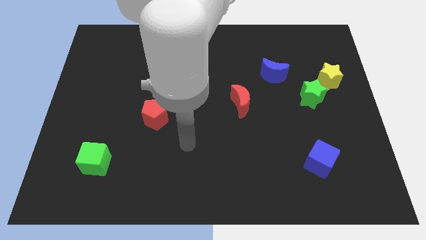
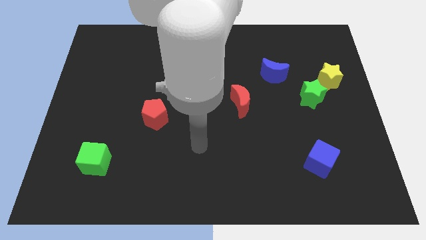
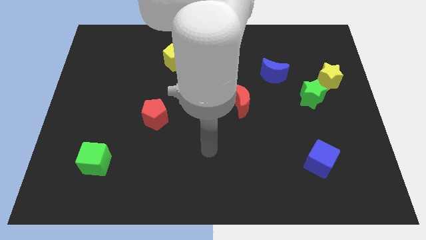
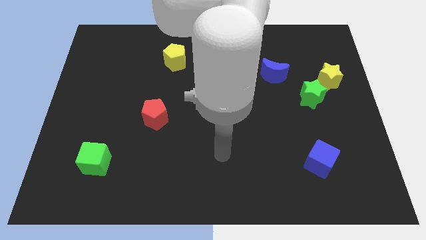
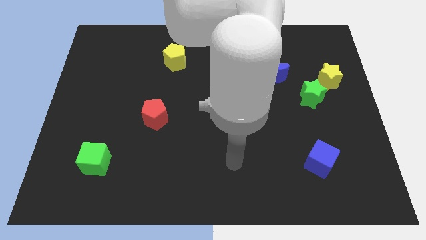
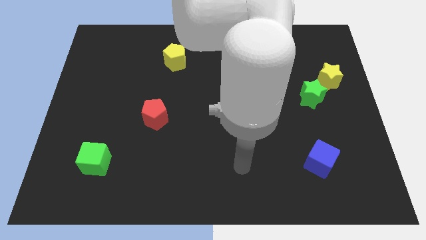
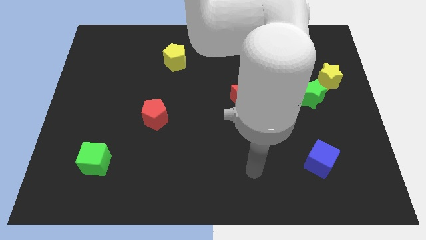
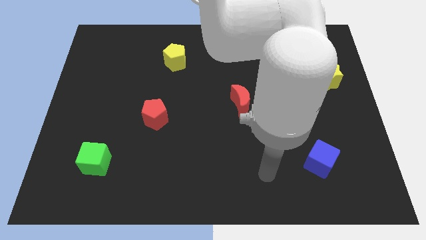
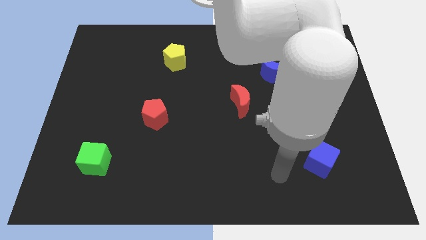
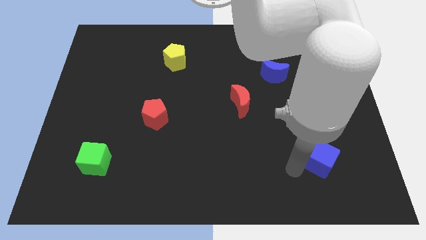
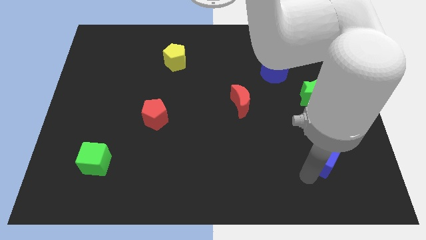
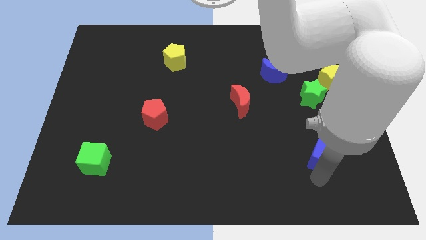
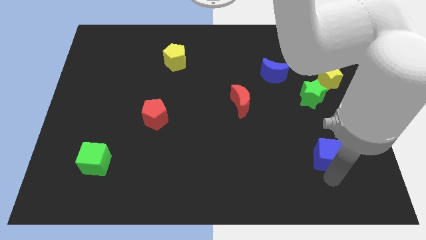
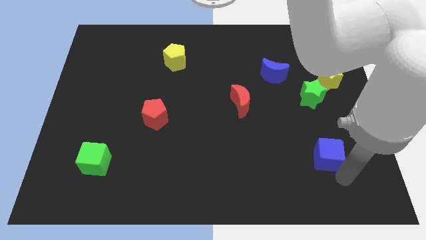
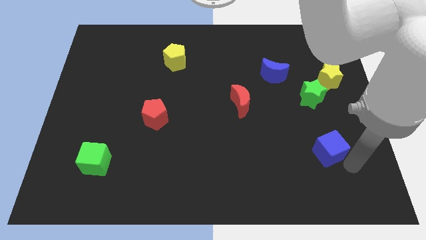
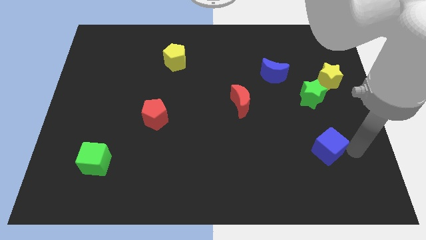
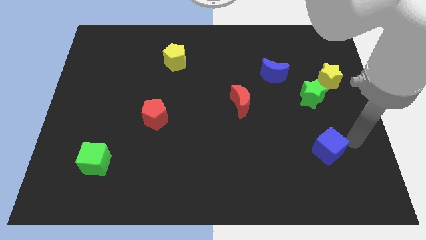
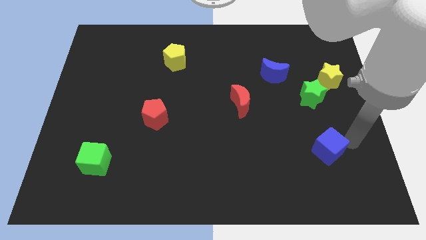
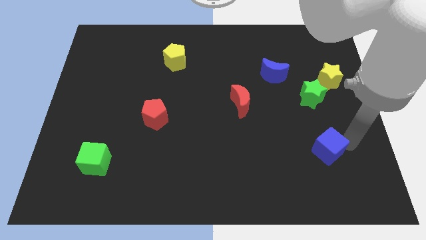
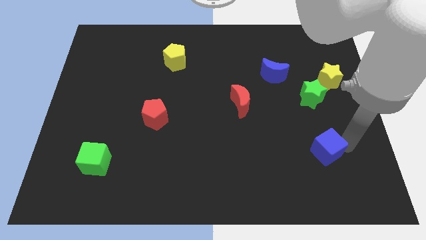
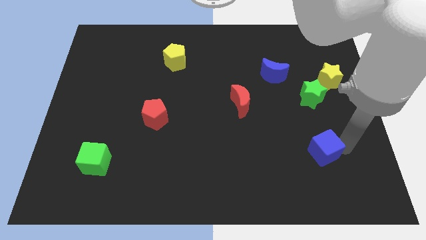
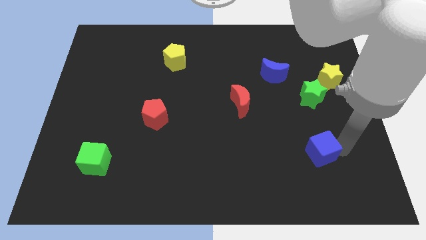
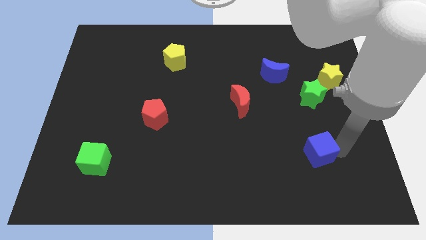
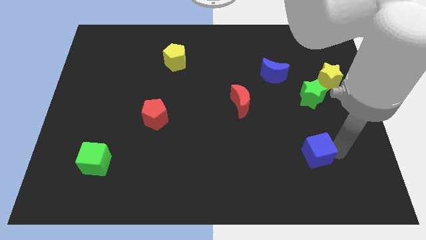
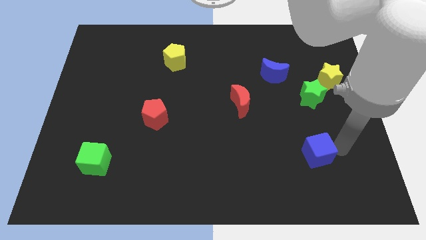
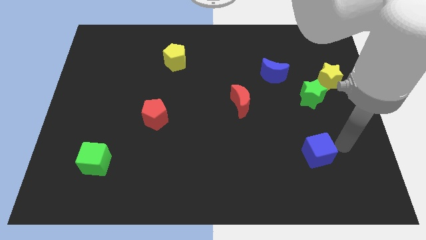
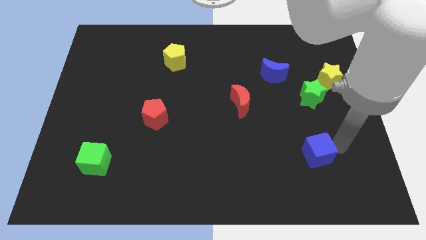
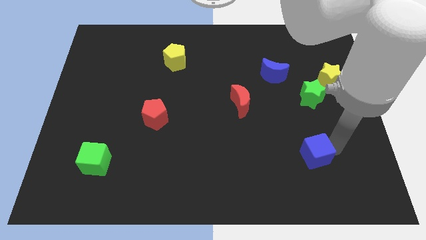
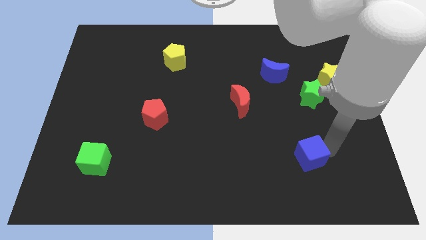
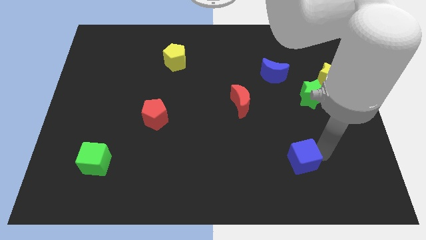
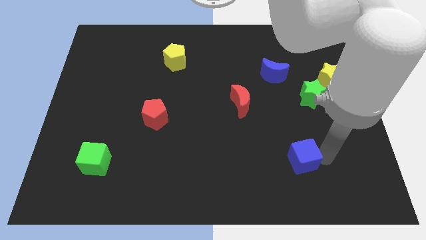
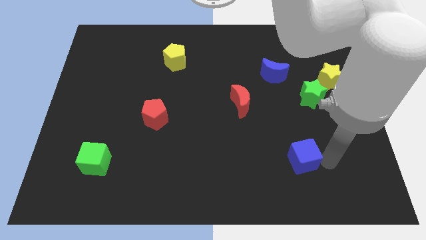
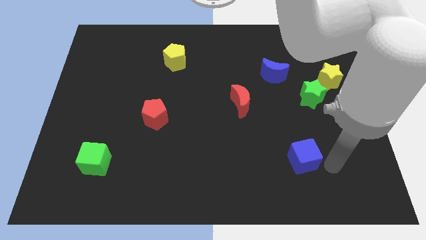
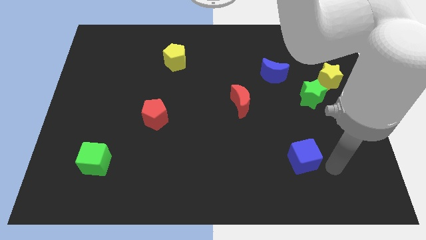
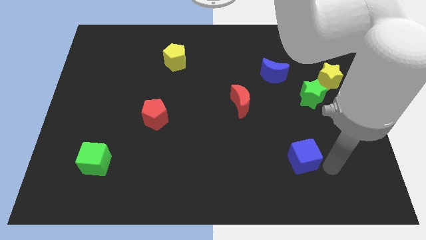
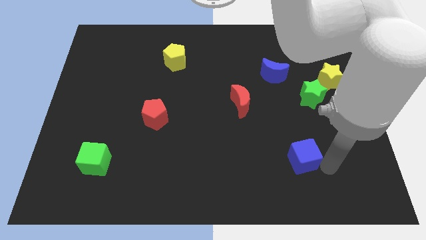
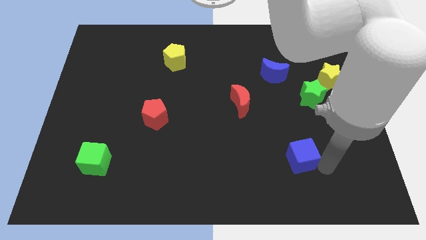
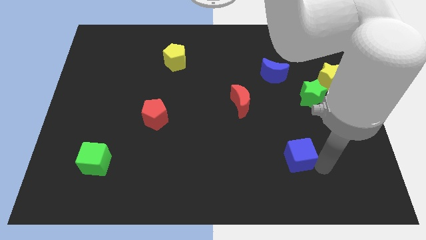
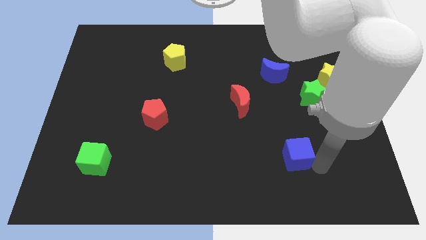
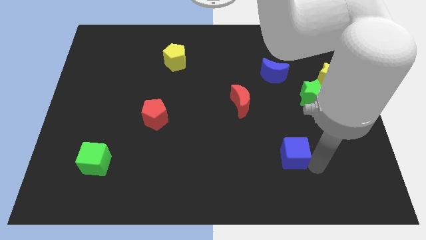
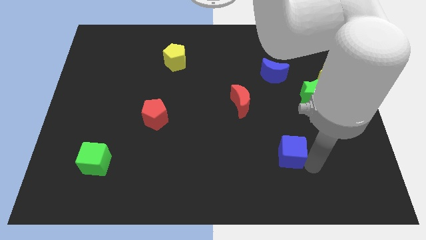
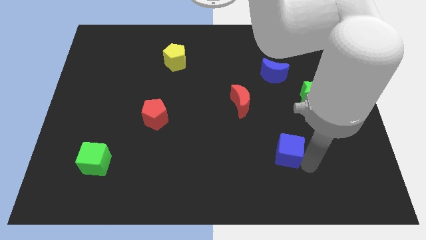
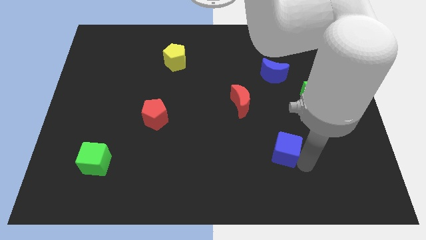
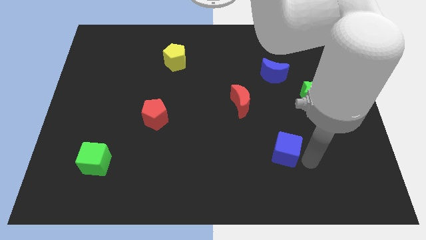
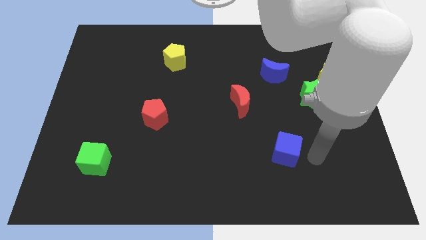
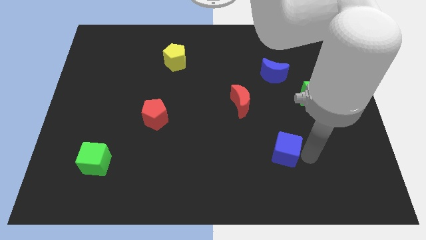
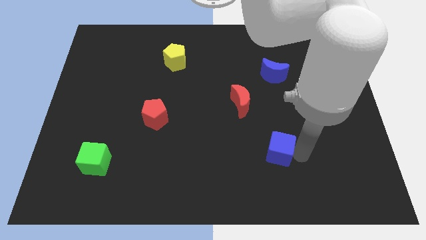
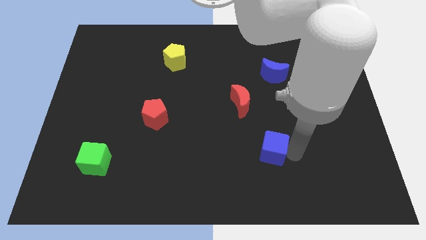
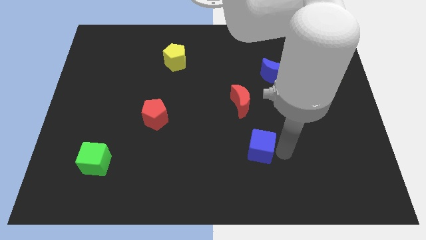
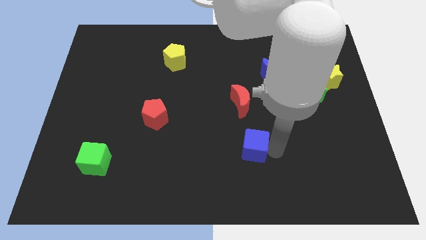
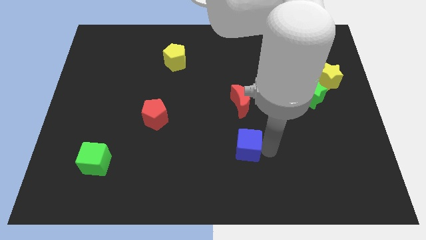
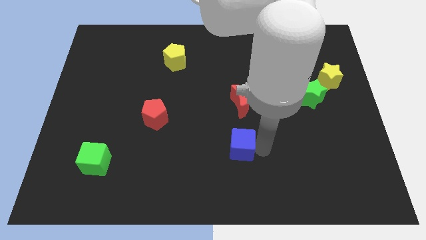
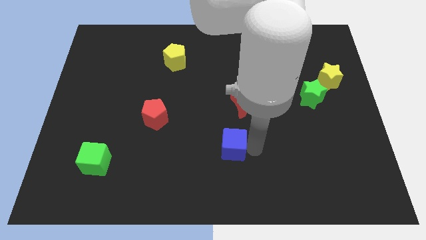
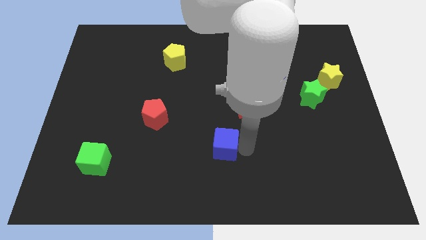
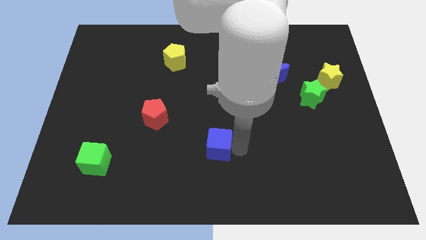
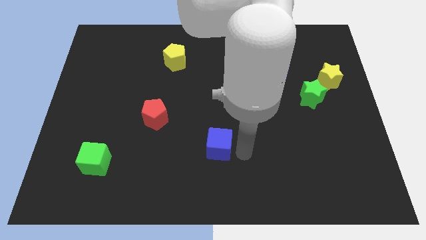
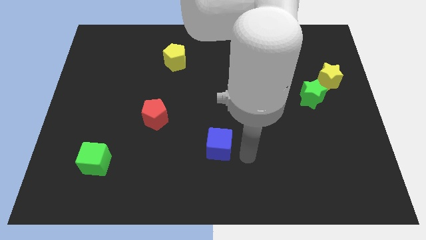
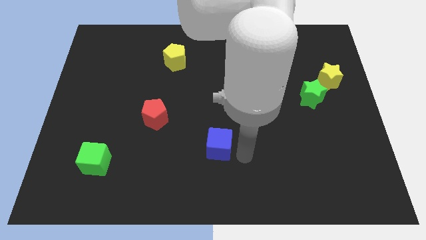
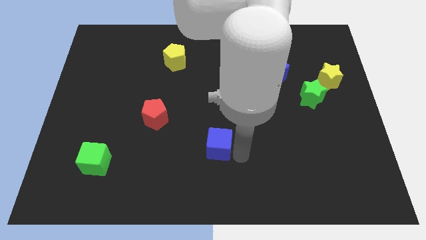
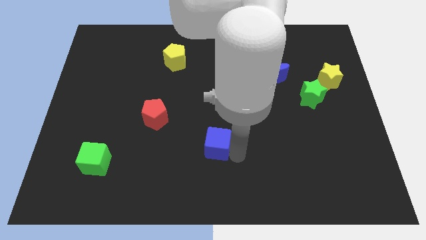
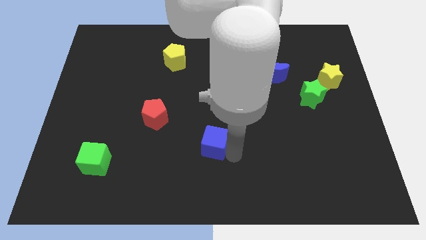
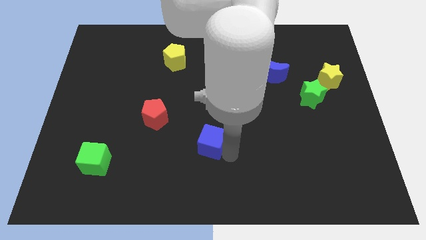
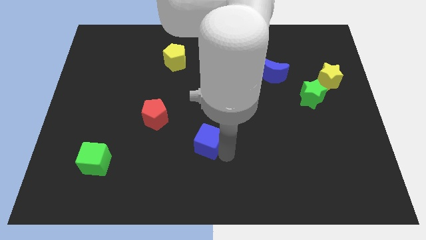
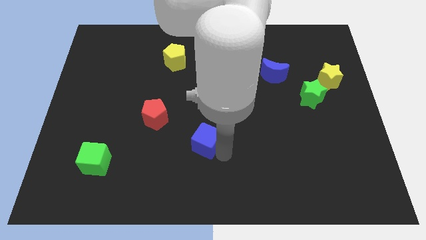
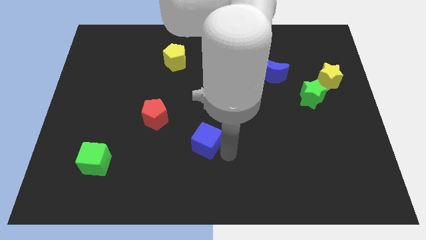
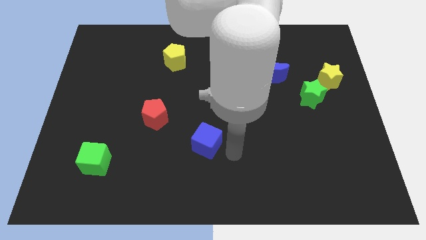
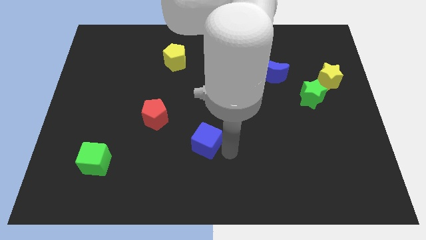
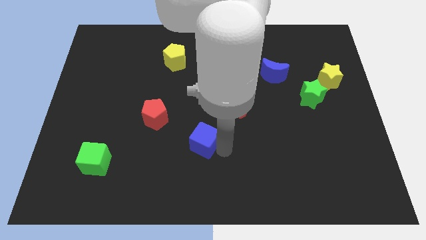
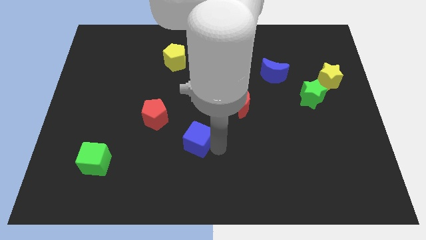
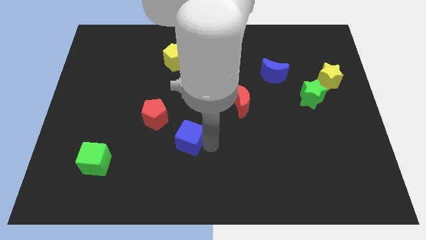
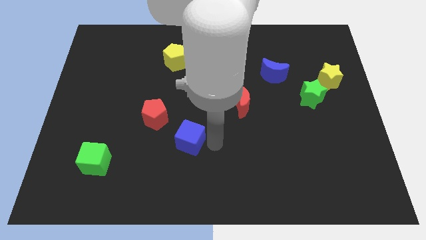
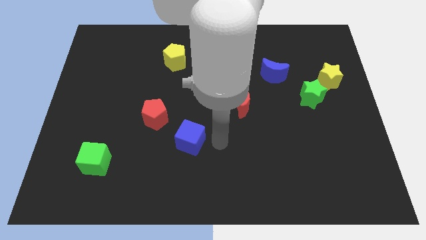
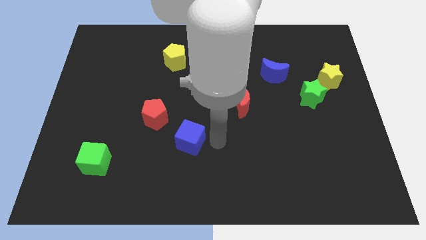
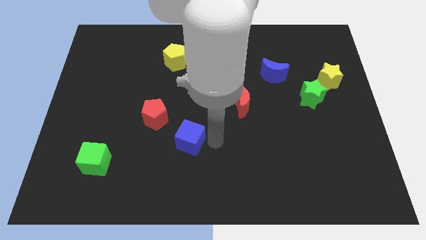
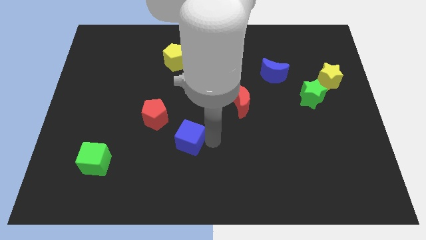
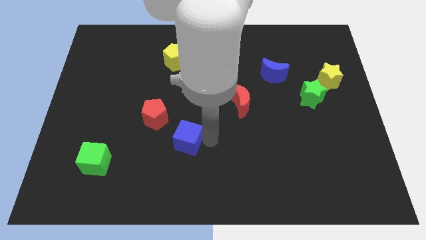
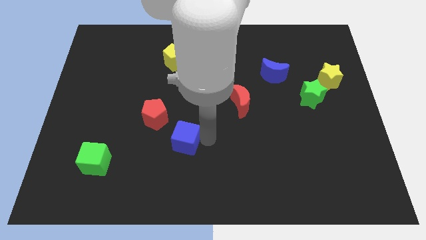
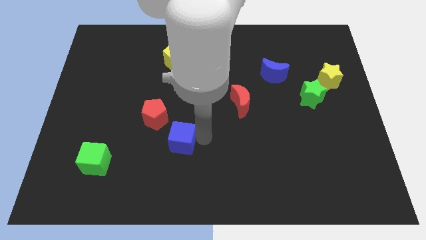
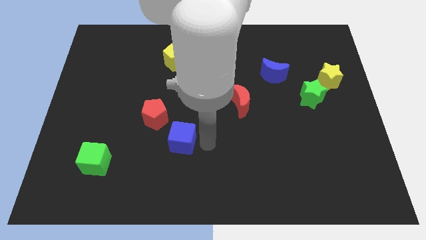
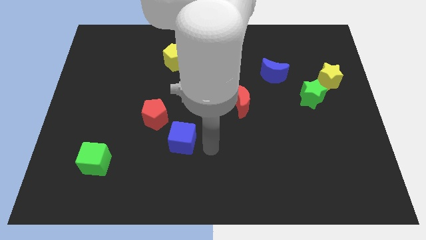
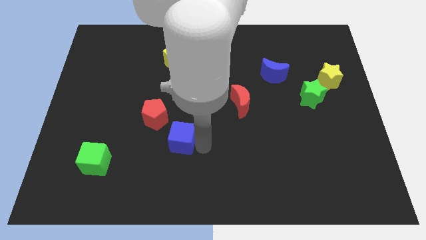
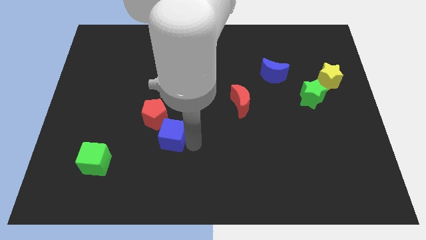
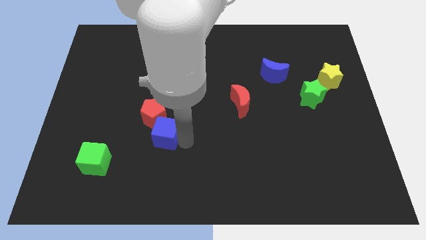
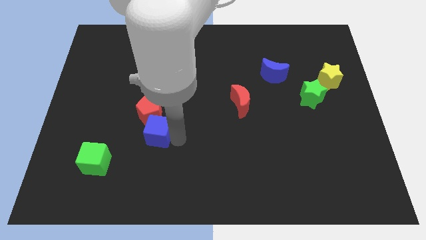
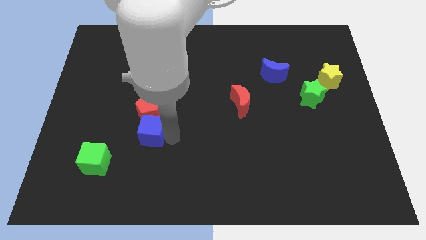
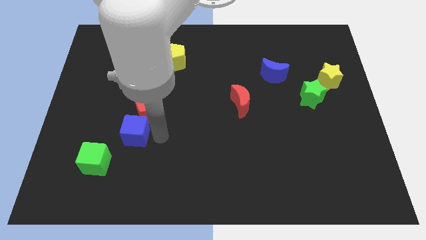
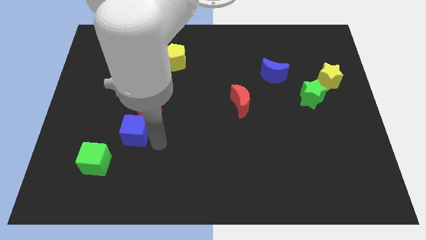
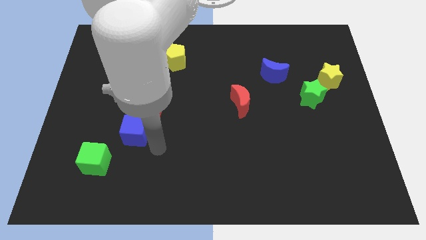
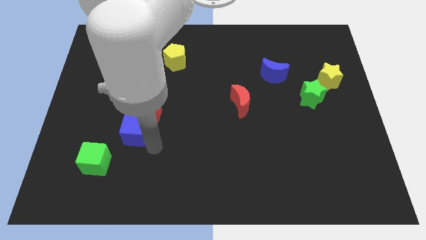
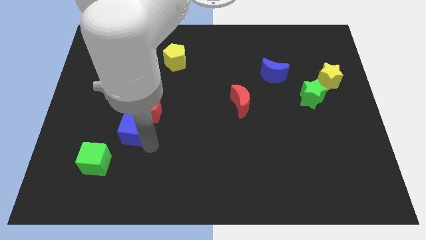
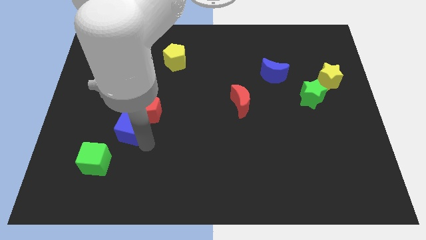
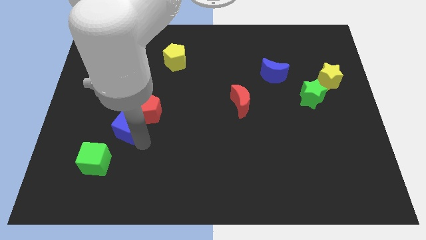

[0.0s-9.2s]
push the blue cube left of the red pentagon
